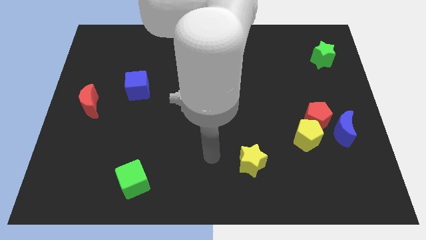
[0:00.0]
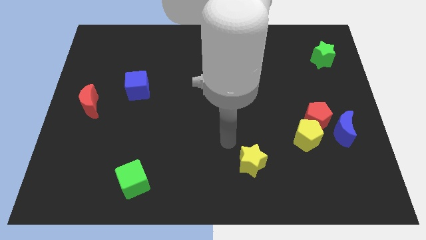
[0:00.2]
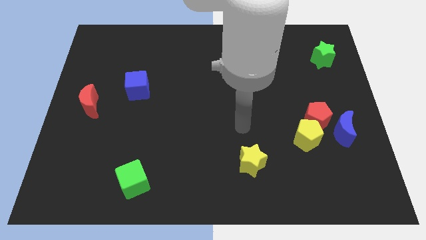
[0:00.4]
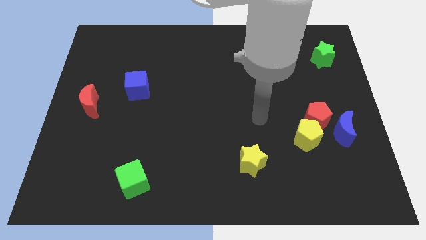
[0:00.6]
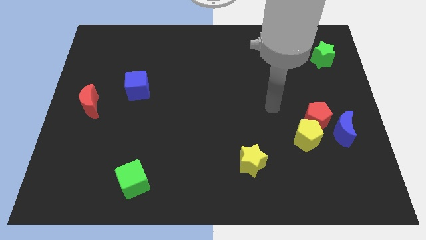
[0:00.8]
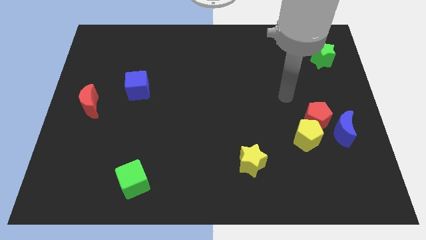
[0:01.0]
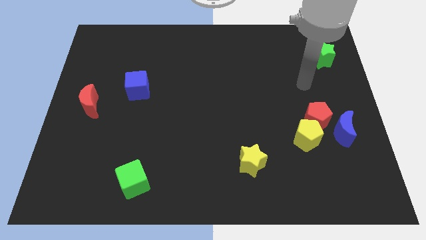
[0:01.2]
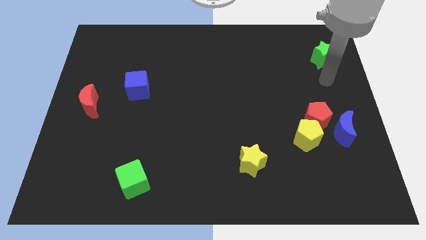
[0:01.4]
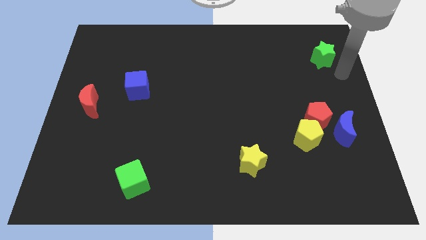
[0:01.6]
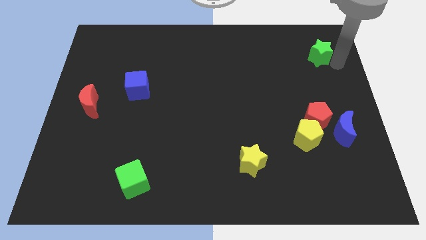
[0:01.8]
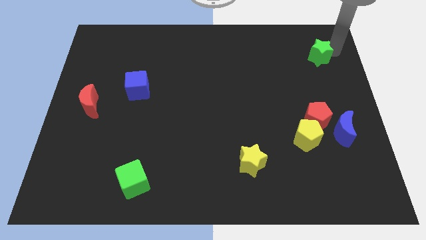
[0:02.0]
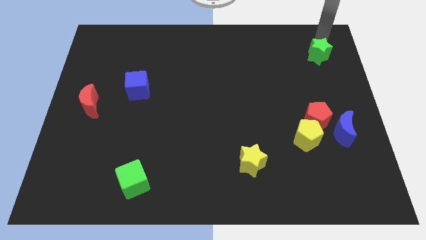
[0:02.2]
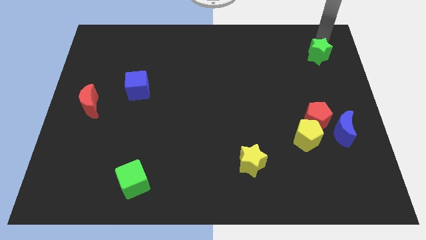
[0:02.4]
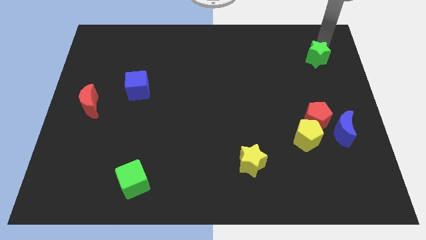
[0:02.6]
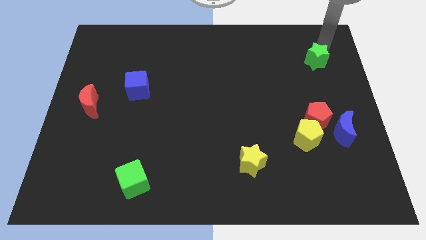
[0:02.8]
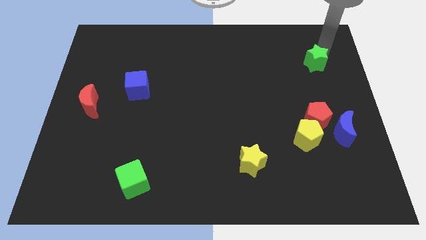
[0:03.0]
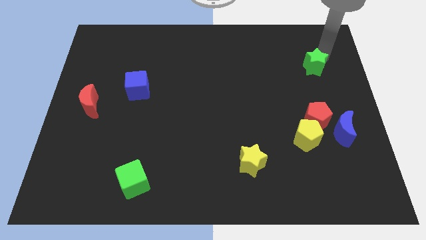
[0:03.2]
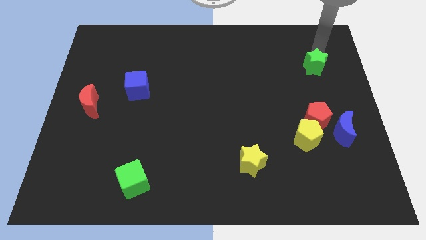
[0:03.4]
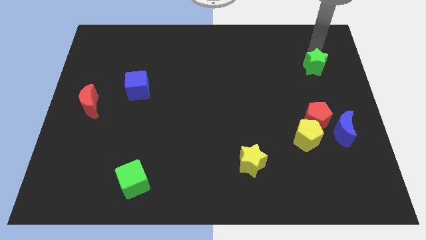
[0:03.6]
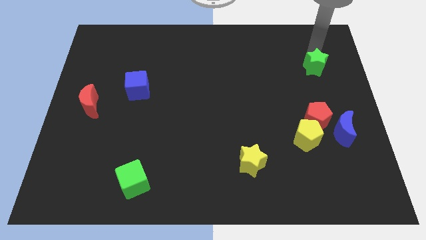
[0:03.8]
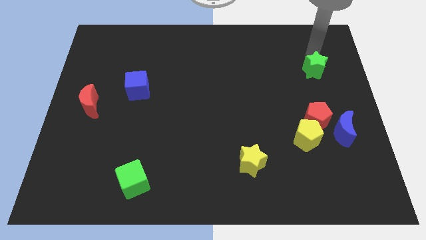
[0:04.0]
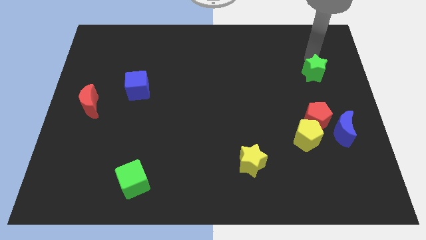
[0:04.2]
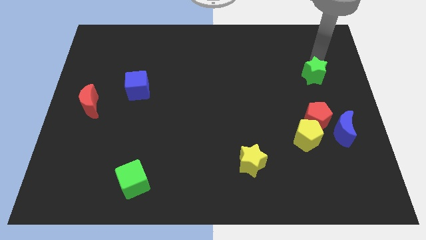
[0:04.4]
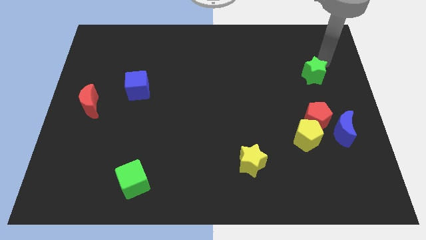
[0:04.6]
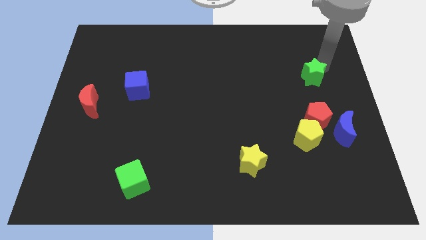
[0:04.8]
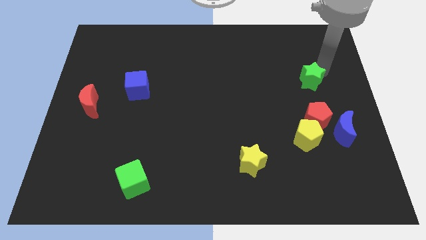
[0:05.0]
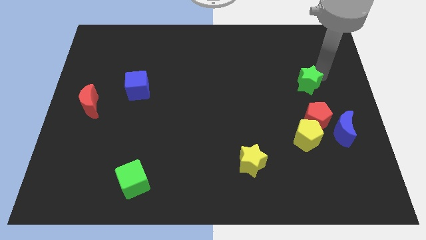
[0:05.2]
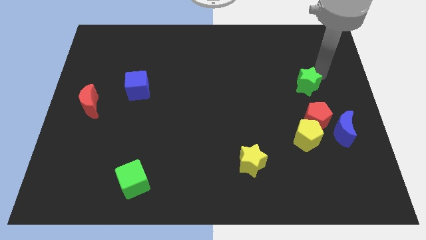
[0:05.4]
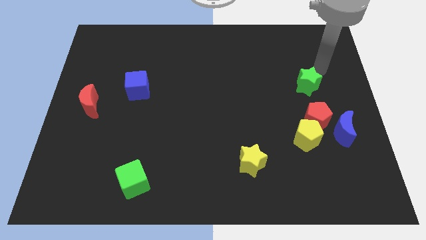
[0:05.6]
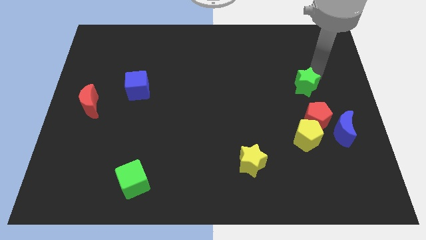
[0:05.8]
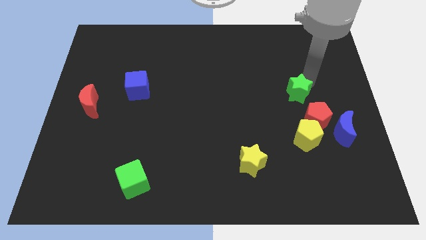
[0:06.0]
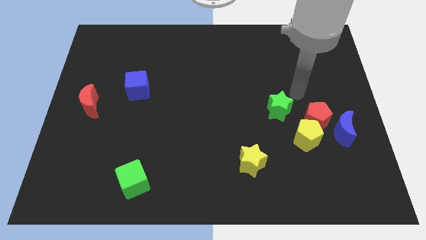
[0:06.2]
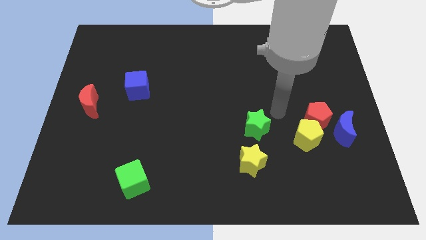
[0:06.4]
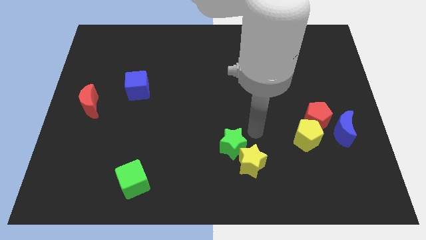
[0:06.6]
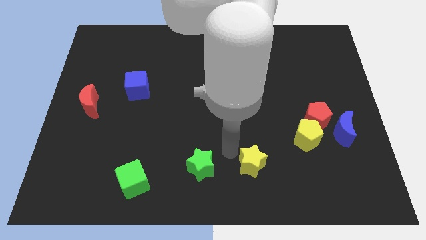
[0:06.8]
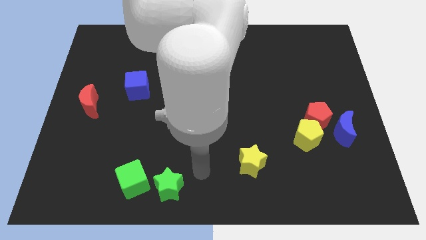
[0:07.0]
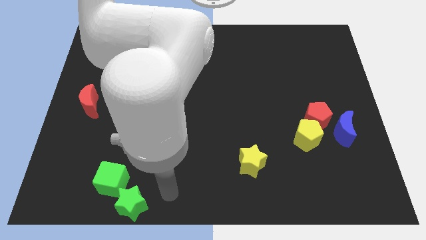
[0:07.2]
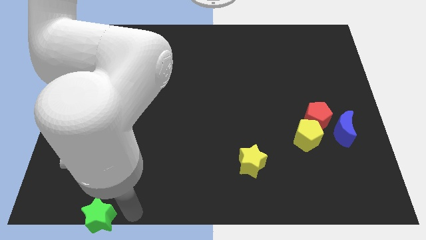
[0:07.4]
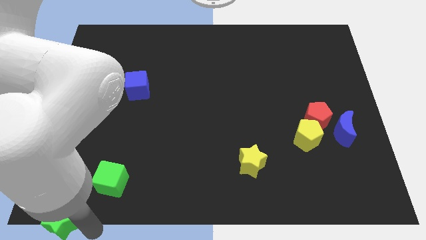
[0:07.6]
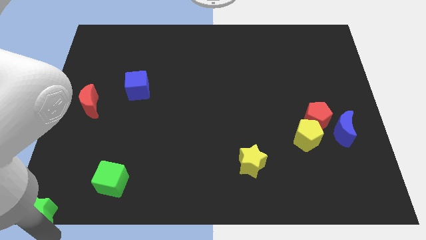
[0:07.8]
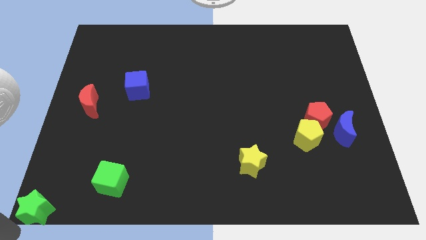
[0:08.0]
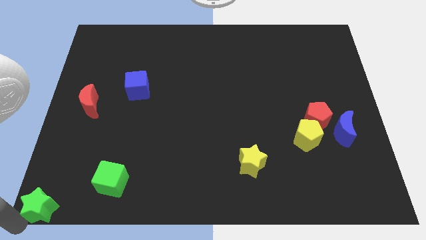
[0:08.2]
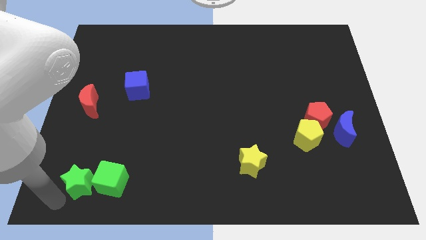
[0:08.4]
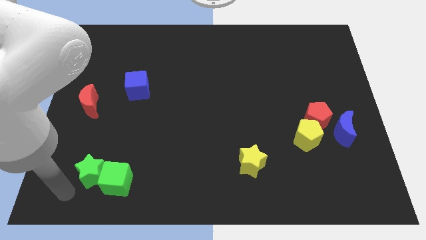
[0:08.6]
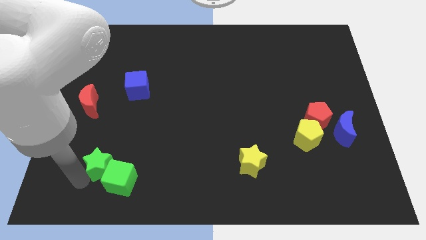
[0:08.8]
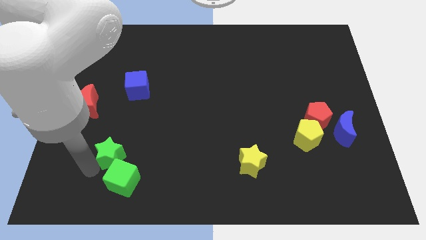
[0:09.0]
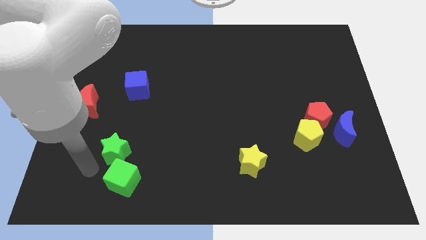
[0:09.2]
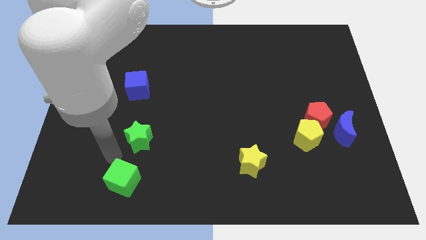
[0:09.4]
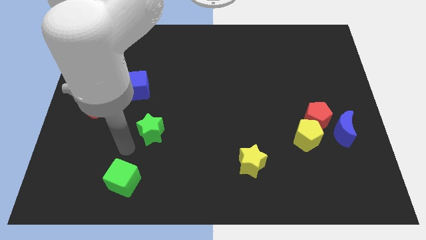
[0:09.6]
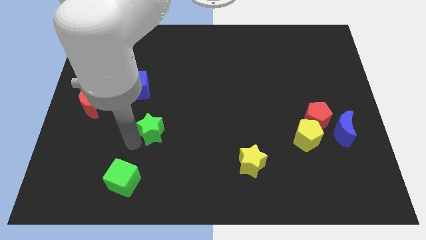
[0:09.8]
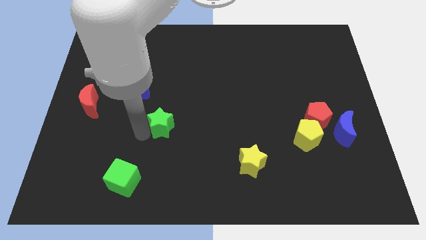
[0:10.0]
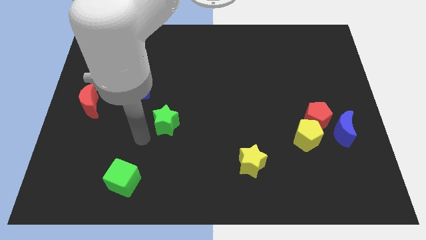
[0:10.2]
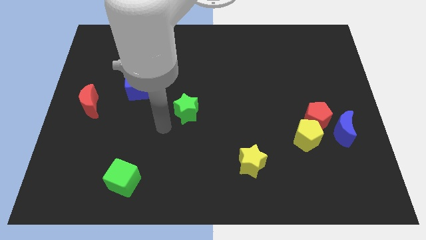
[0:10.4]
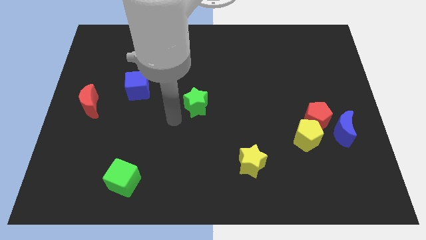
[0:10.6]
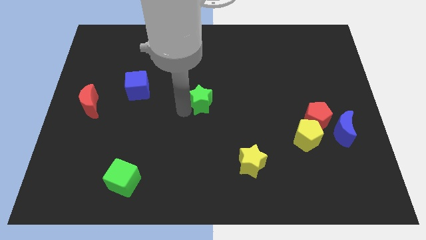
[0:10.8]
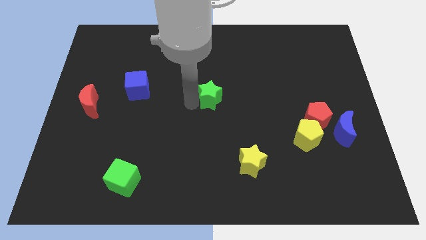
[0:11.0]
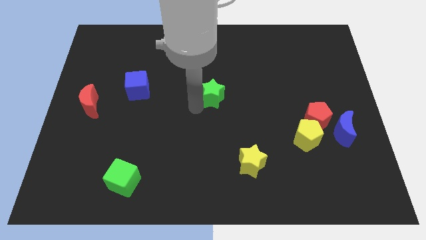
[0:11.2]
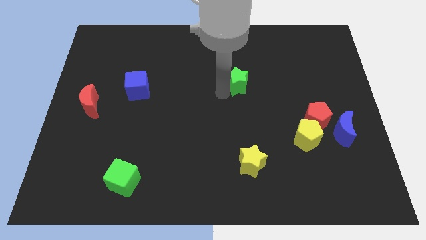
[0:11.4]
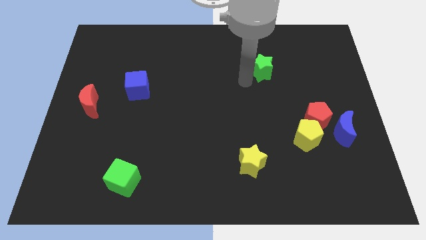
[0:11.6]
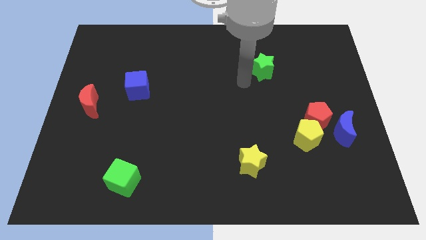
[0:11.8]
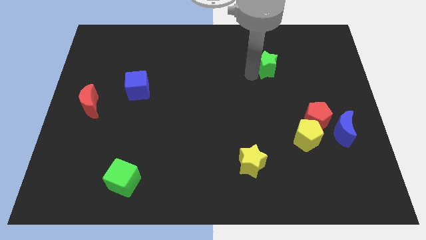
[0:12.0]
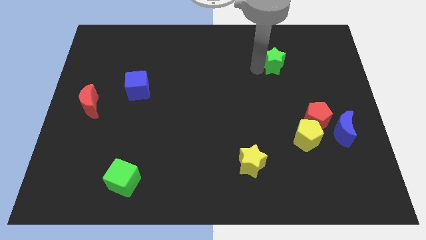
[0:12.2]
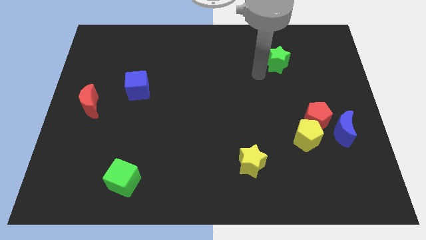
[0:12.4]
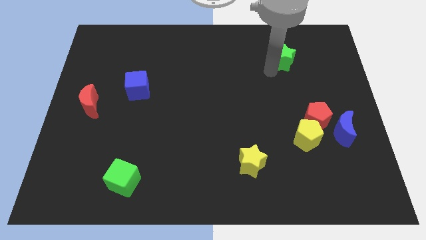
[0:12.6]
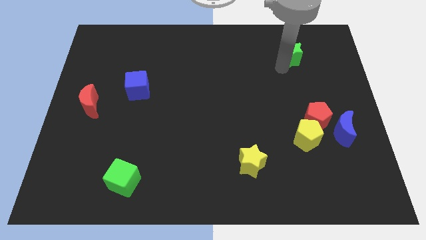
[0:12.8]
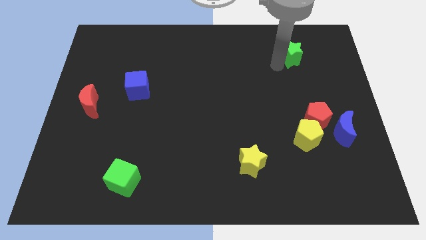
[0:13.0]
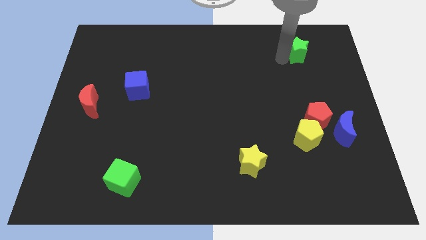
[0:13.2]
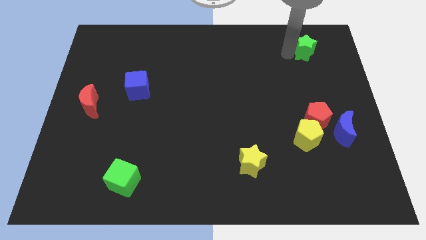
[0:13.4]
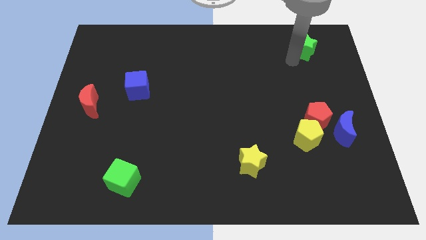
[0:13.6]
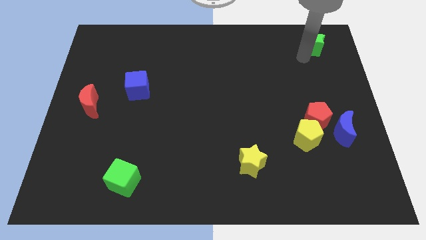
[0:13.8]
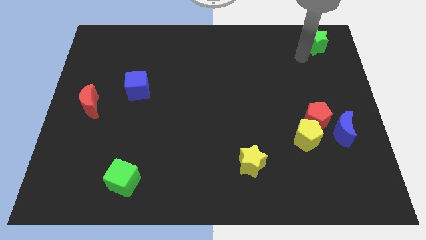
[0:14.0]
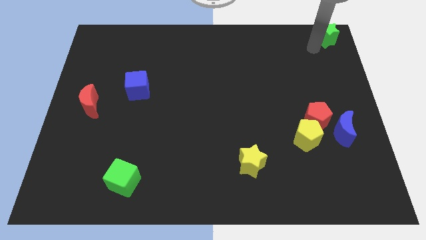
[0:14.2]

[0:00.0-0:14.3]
move the green star to the top right corner
